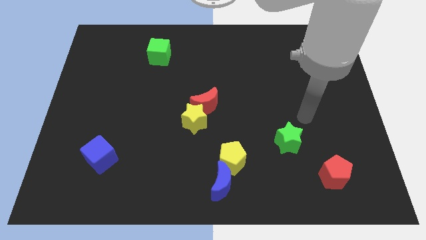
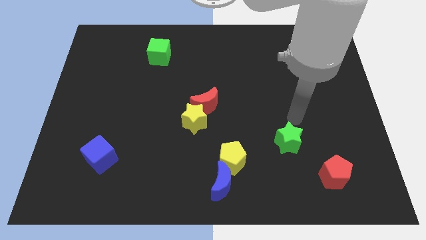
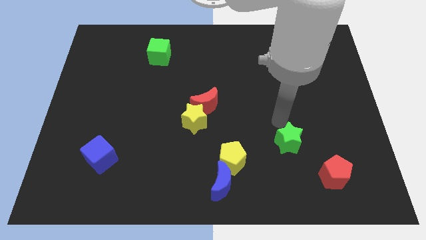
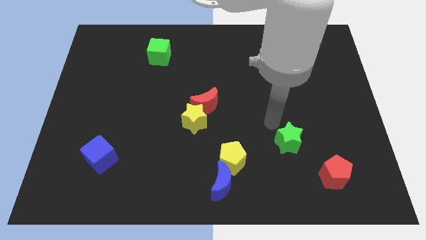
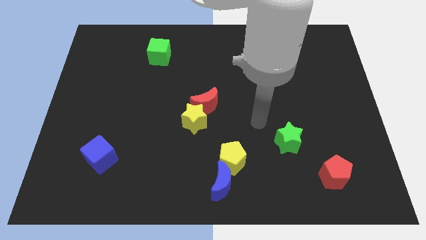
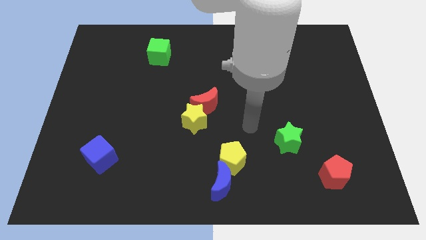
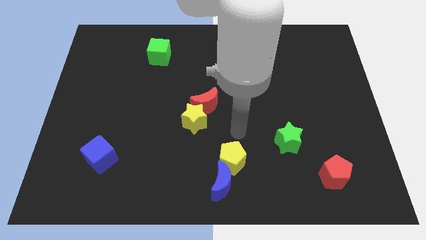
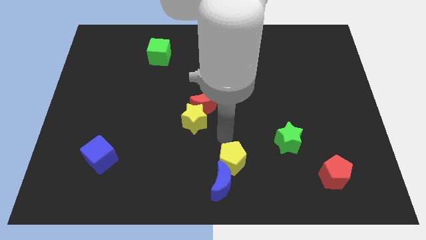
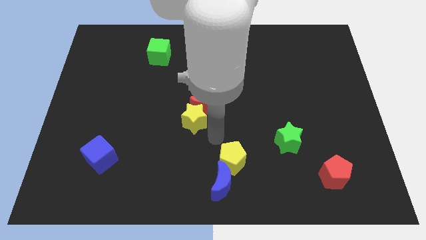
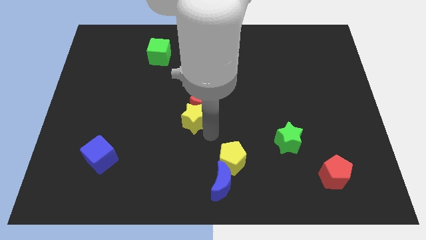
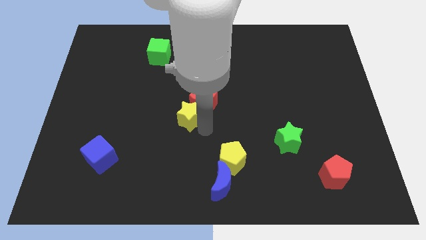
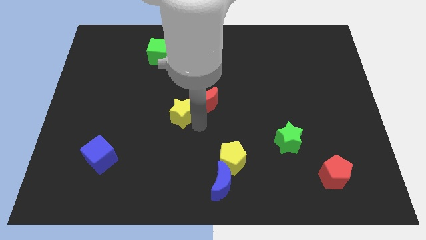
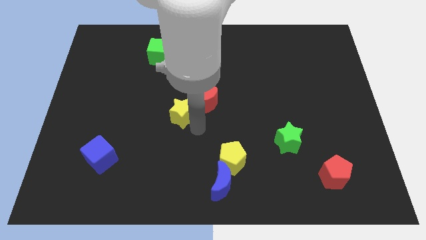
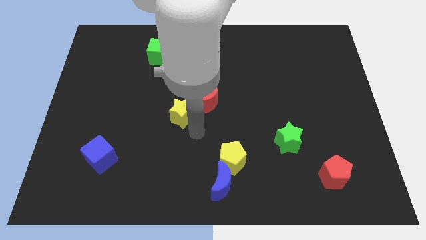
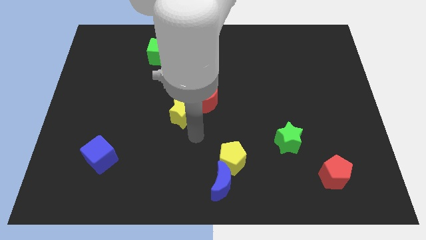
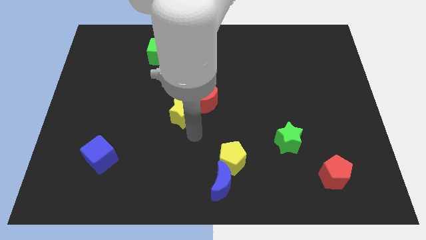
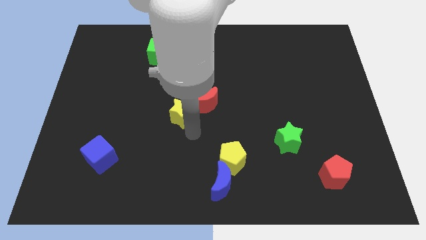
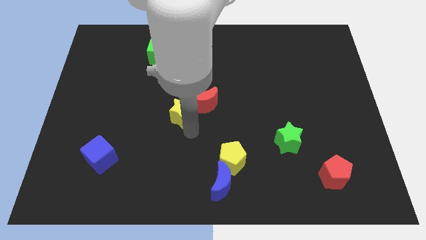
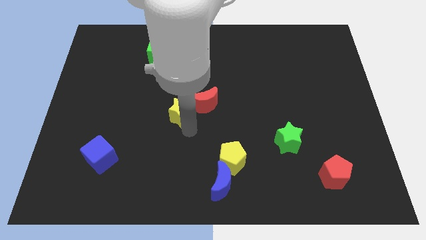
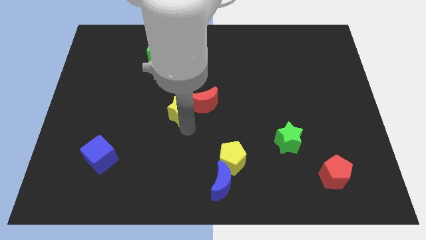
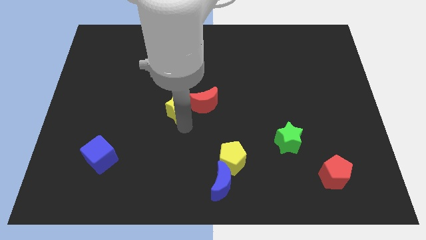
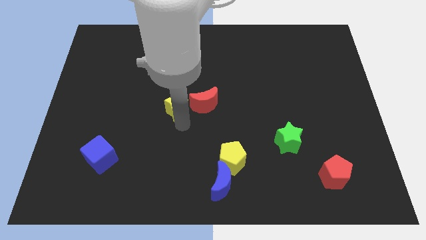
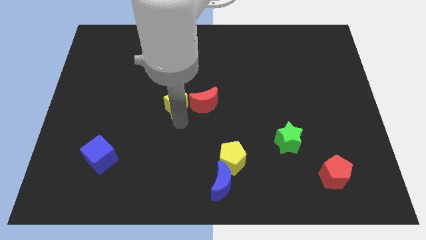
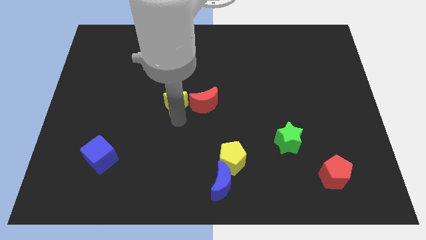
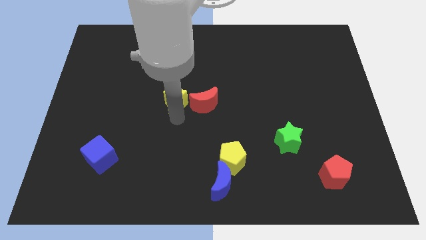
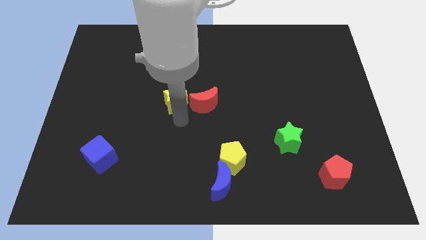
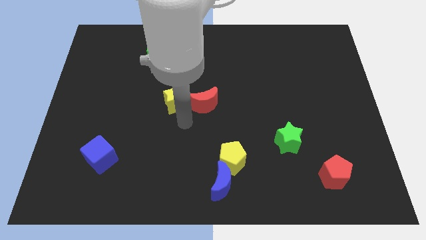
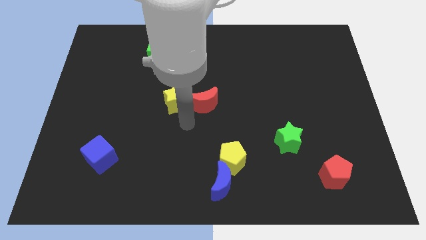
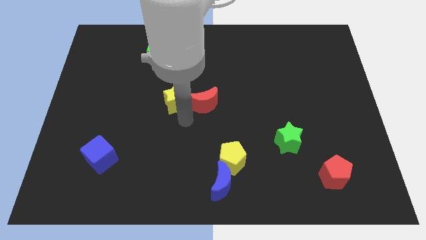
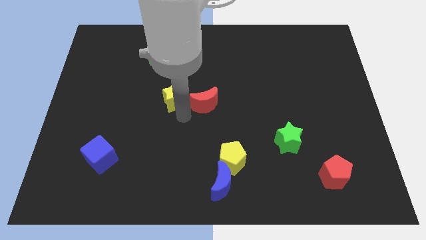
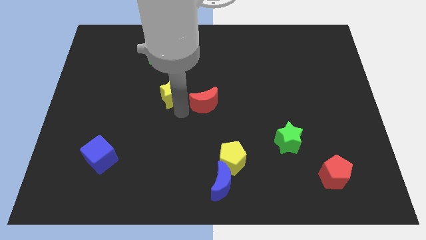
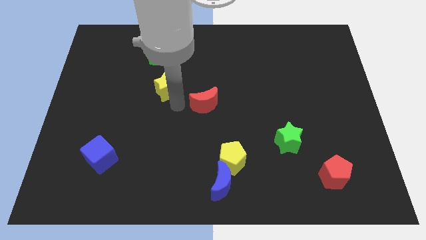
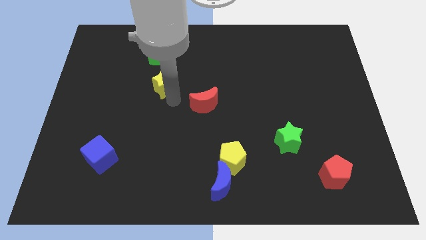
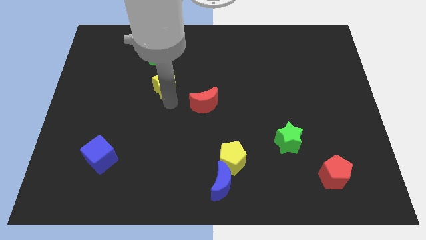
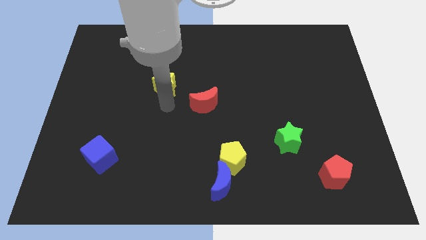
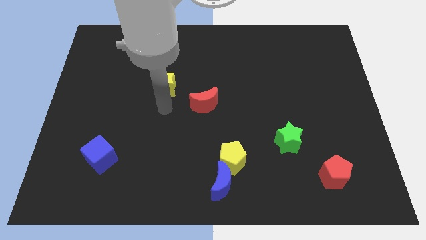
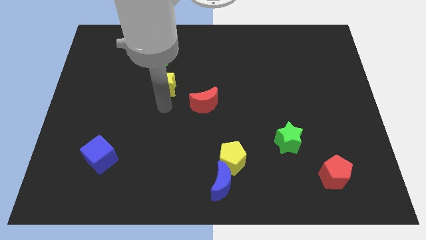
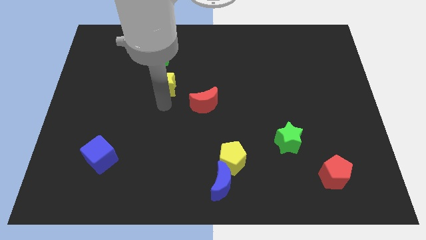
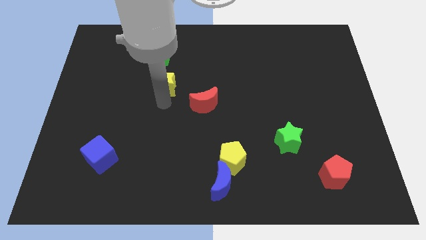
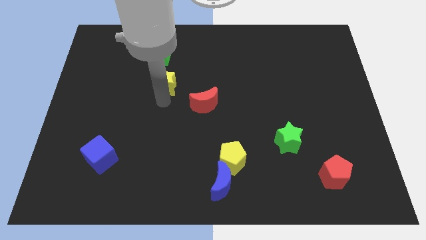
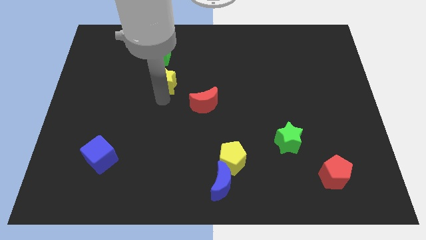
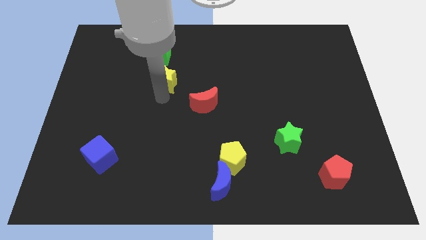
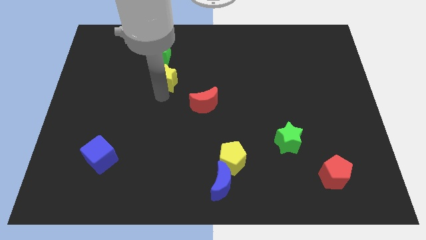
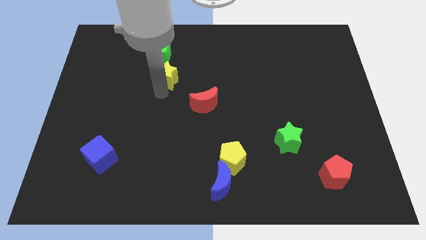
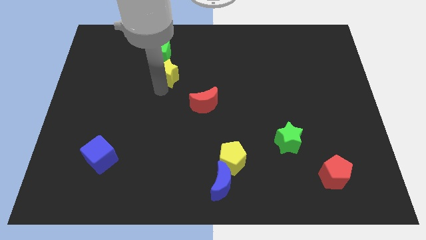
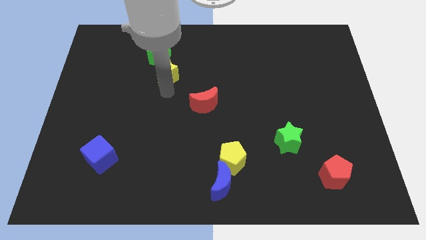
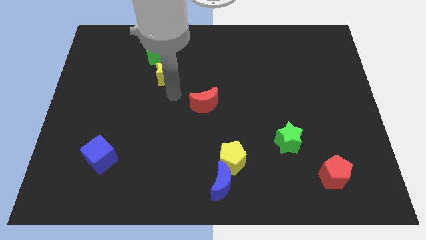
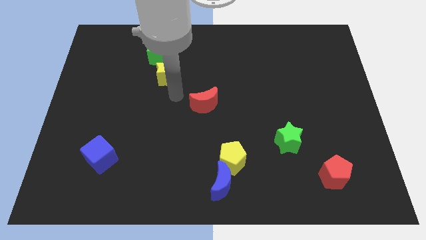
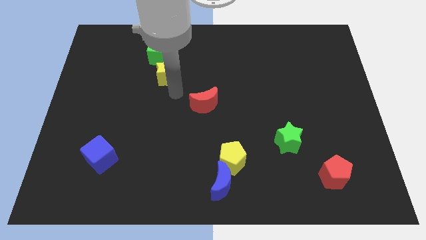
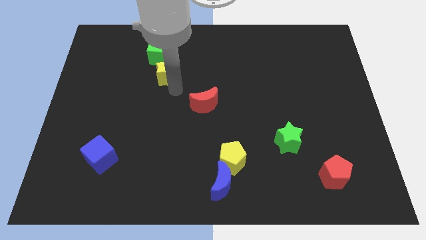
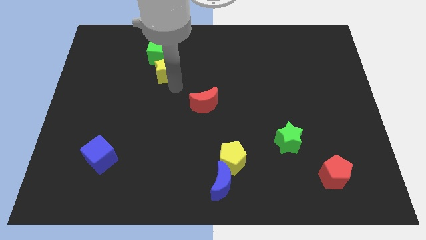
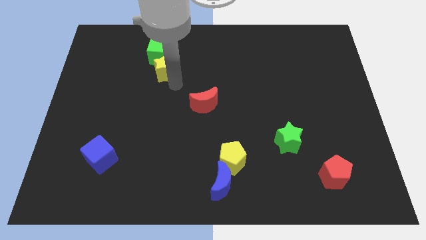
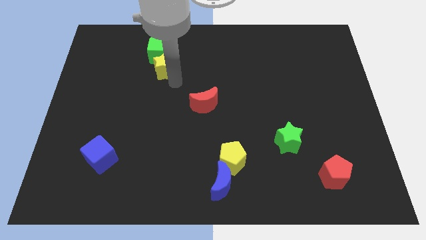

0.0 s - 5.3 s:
move the yellow star next to the green cube

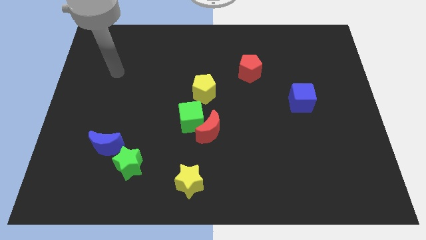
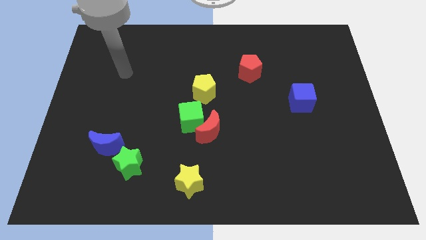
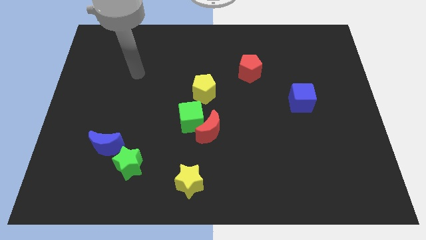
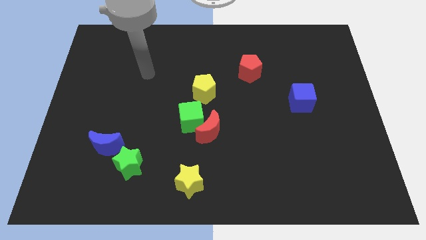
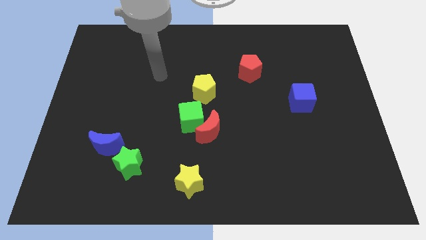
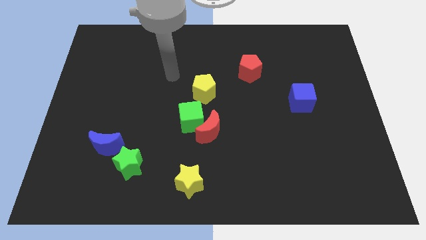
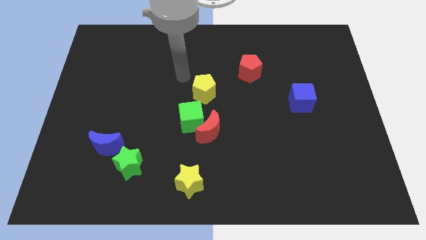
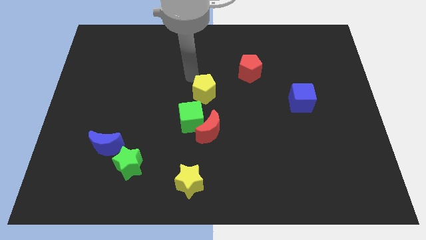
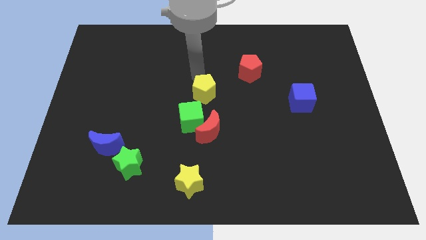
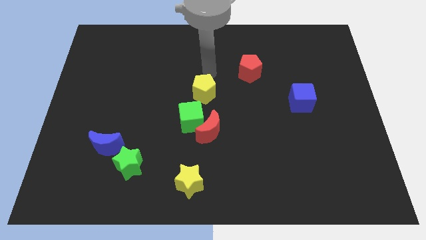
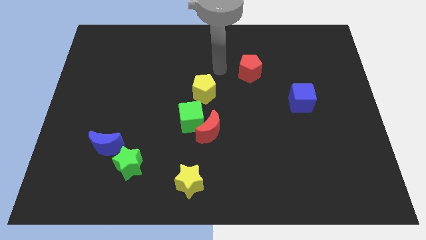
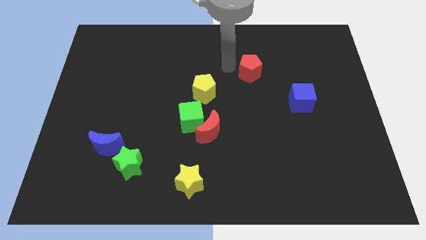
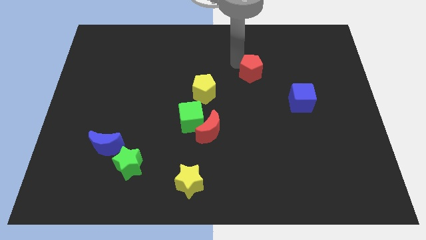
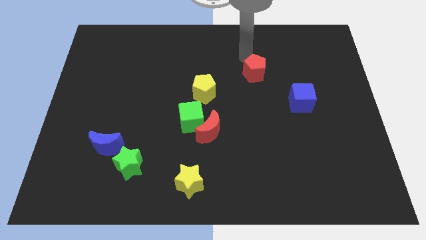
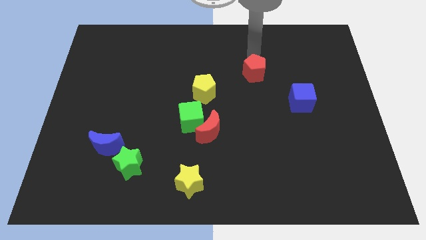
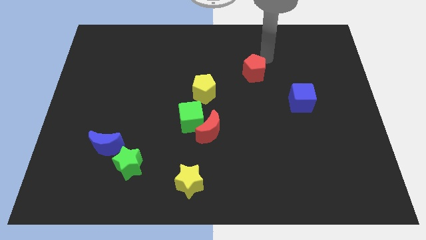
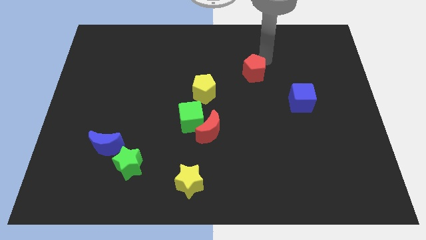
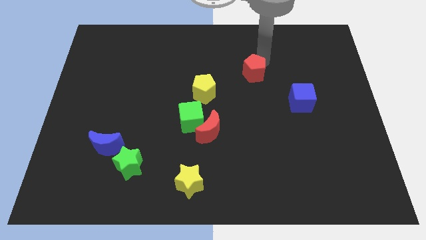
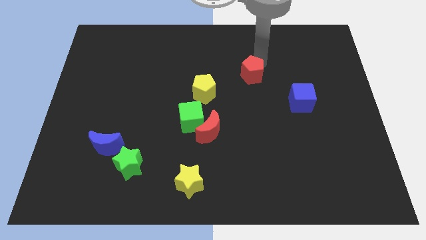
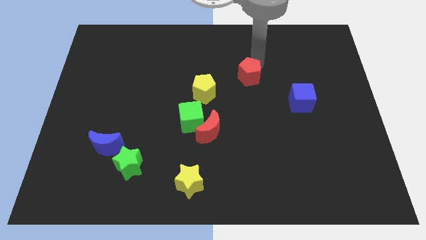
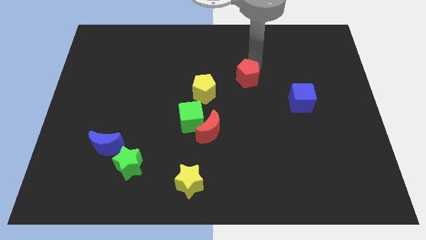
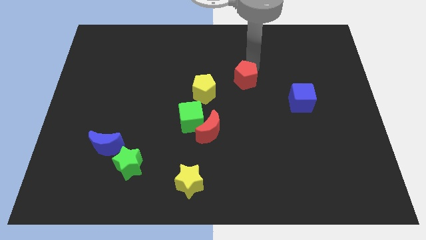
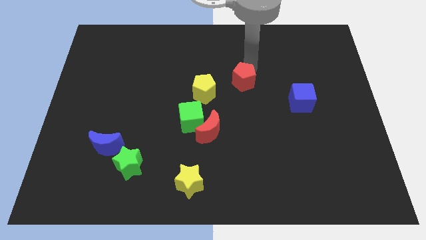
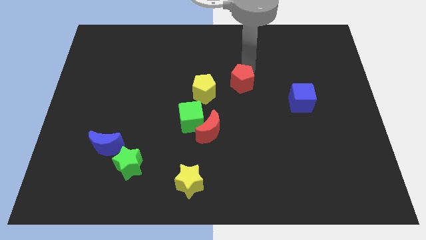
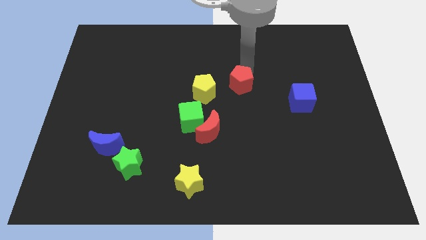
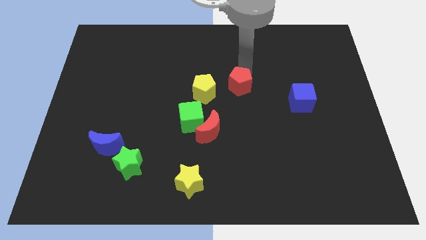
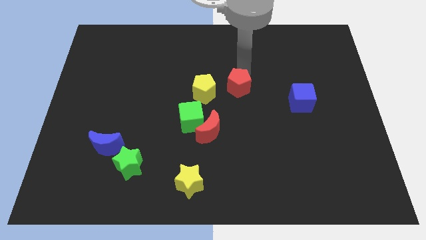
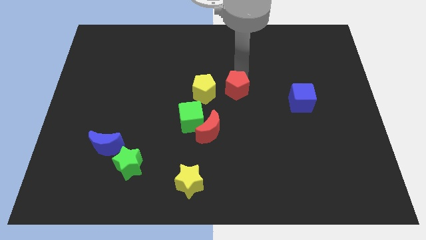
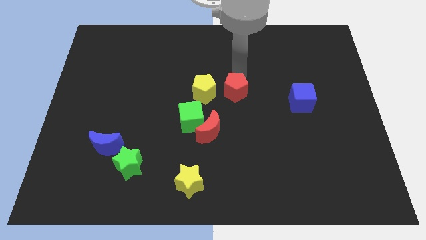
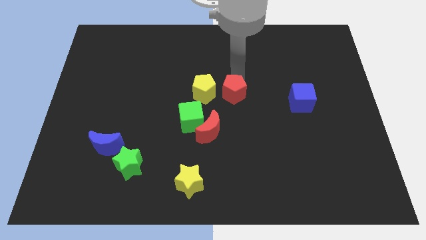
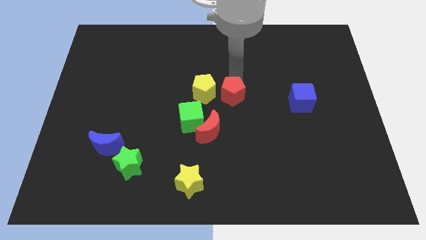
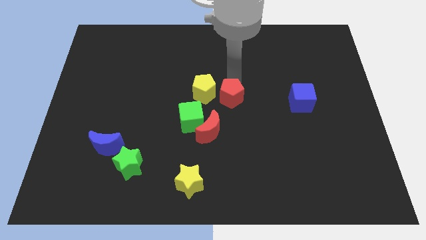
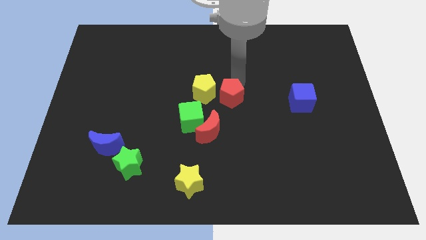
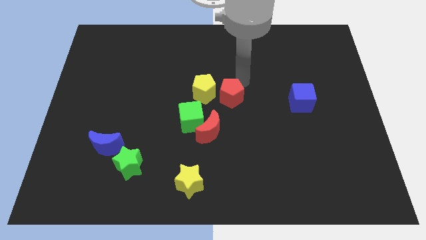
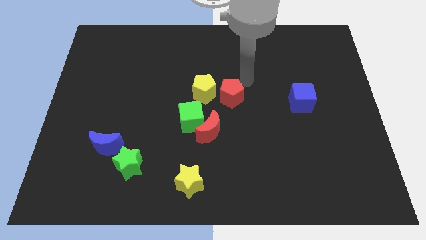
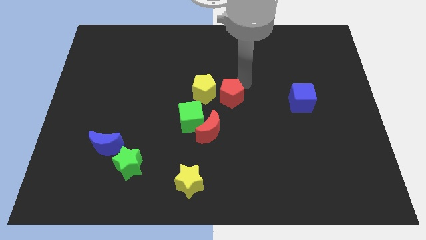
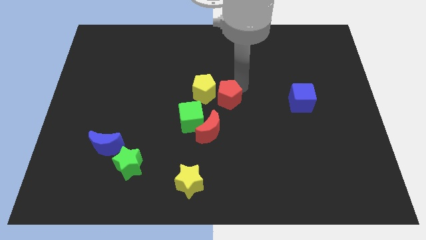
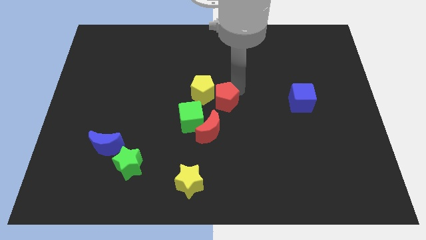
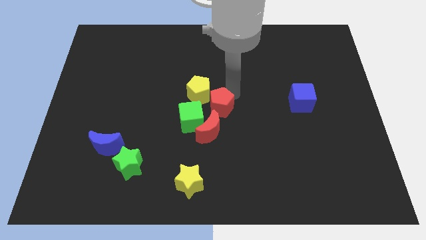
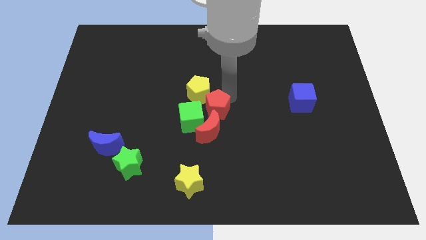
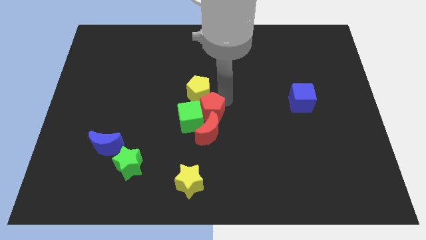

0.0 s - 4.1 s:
move the red pentagon close to the red moon
